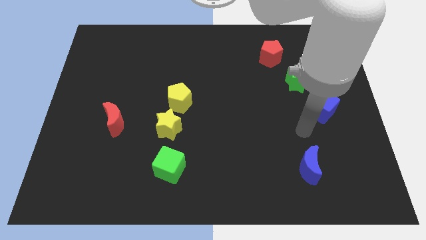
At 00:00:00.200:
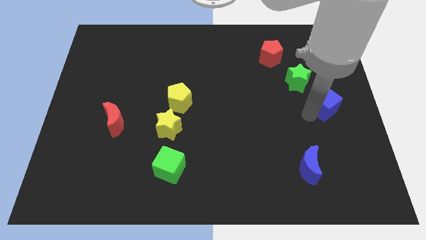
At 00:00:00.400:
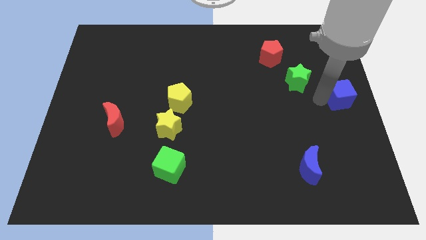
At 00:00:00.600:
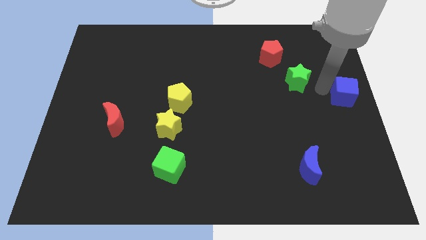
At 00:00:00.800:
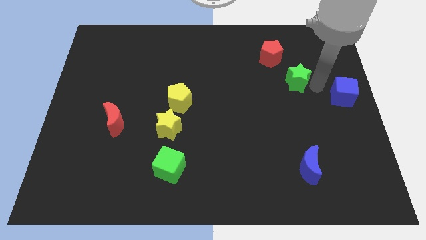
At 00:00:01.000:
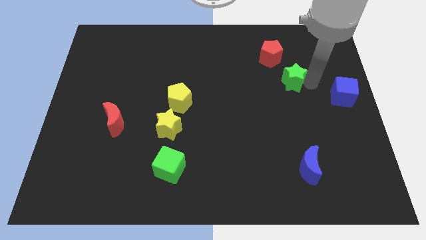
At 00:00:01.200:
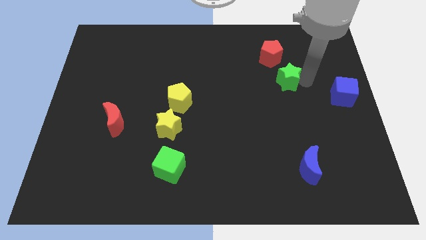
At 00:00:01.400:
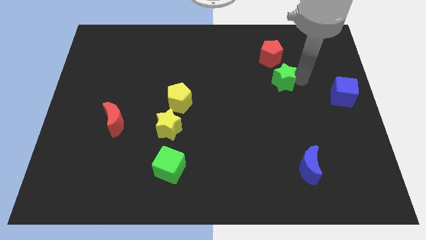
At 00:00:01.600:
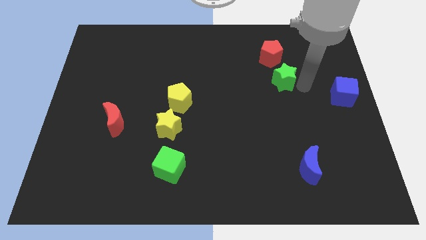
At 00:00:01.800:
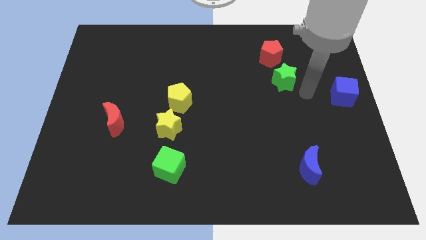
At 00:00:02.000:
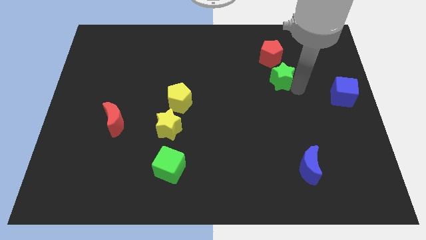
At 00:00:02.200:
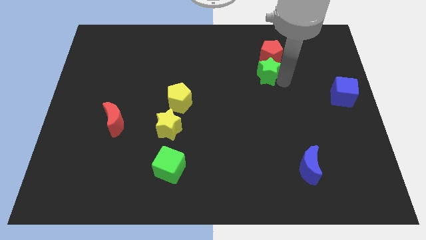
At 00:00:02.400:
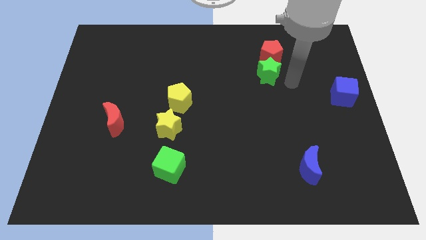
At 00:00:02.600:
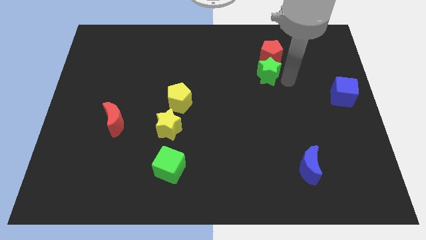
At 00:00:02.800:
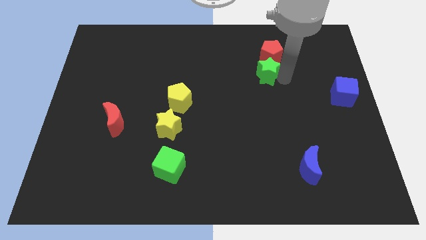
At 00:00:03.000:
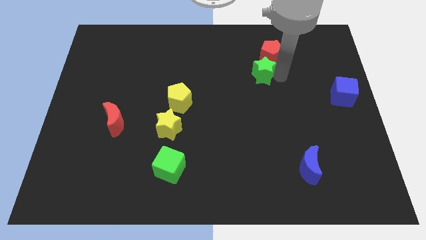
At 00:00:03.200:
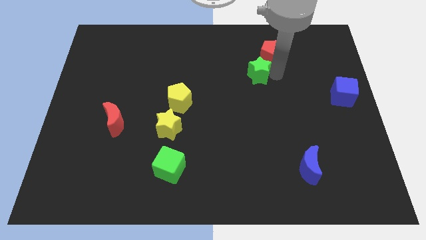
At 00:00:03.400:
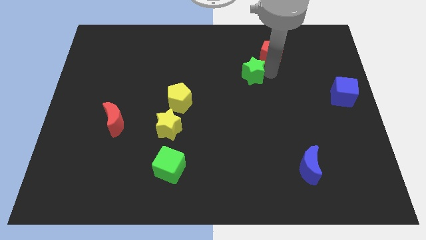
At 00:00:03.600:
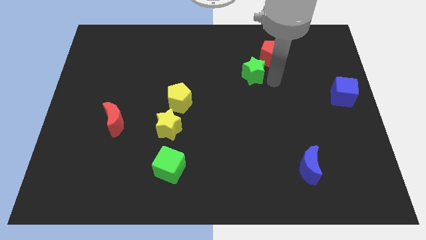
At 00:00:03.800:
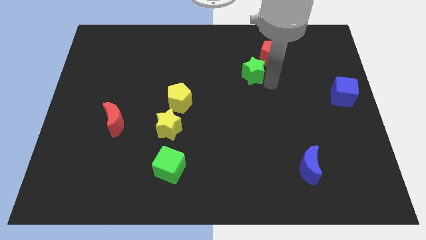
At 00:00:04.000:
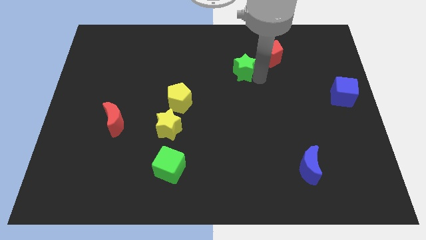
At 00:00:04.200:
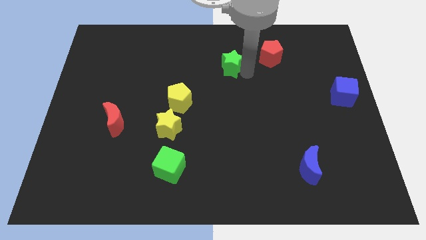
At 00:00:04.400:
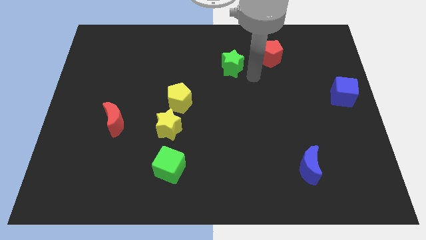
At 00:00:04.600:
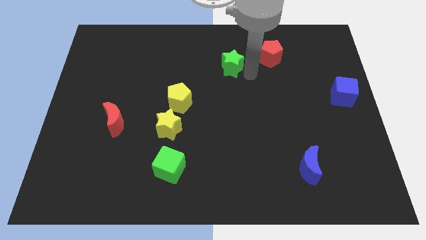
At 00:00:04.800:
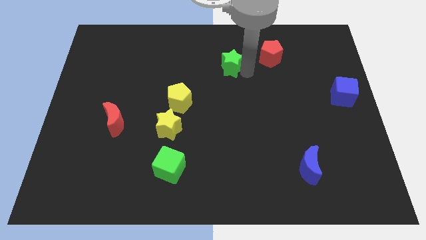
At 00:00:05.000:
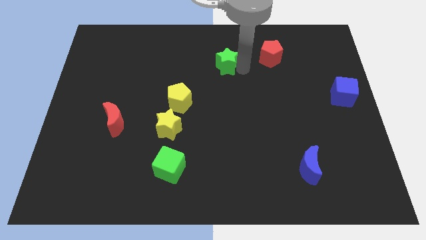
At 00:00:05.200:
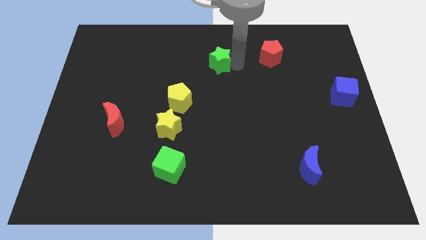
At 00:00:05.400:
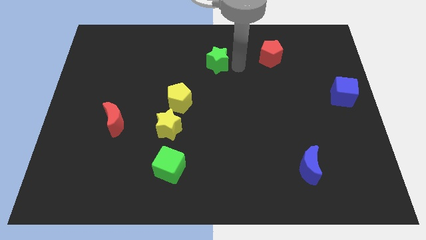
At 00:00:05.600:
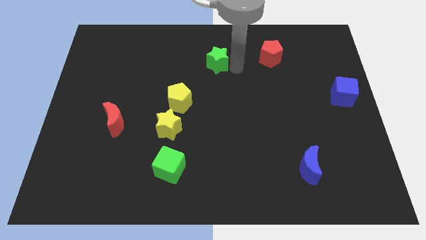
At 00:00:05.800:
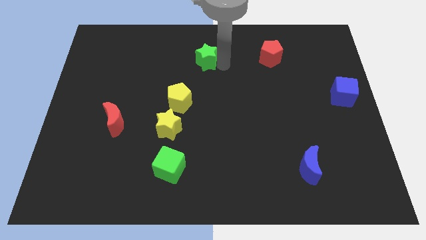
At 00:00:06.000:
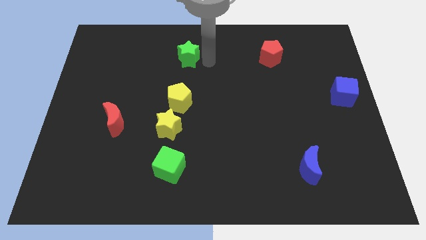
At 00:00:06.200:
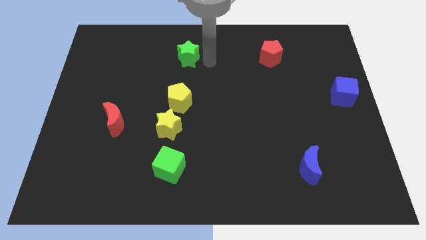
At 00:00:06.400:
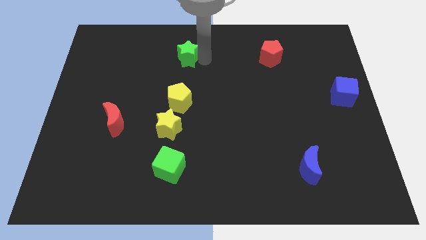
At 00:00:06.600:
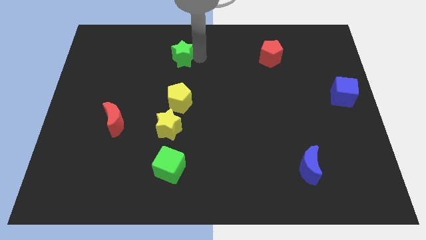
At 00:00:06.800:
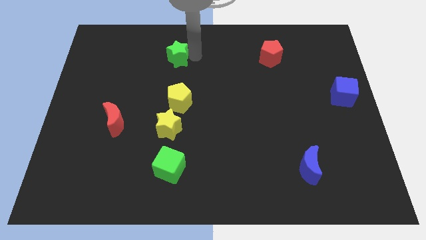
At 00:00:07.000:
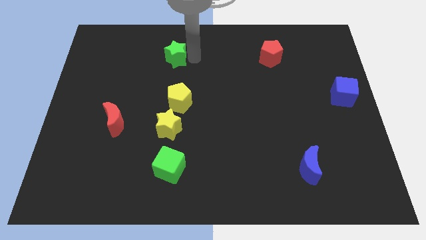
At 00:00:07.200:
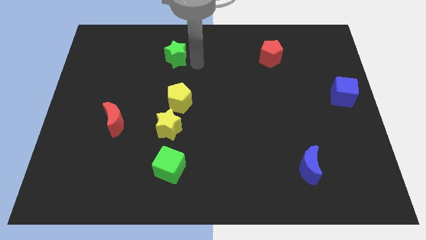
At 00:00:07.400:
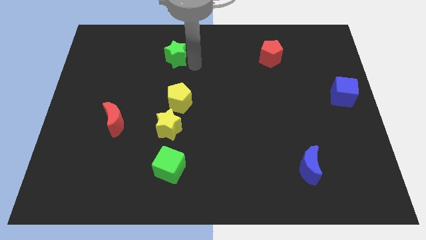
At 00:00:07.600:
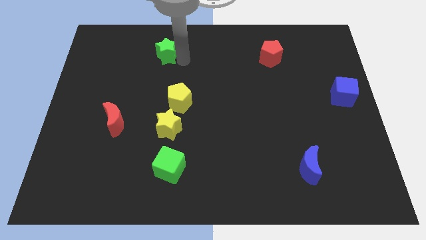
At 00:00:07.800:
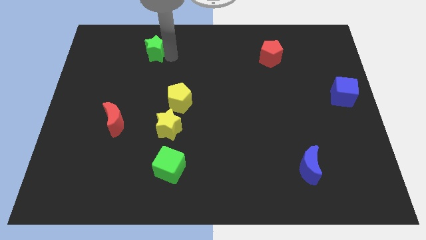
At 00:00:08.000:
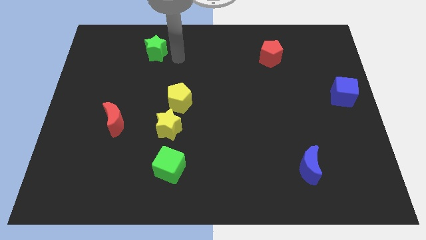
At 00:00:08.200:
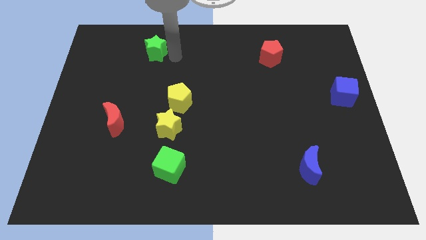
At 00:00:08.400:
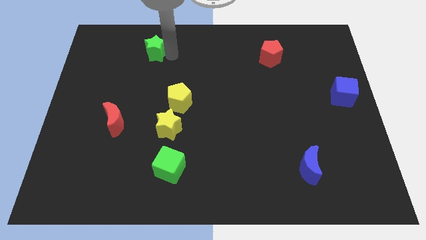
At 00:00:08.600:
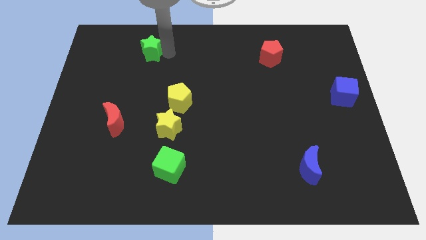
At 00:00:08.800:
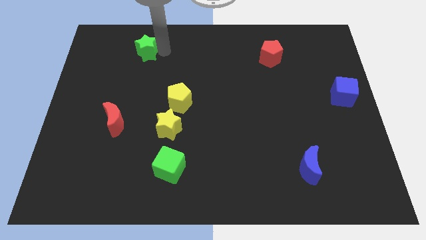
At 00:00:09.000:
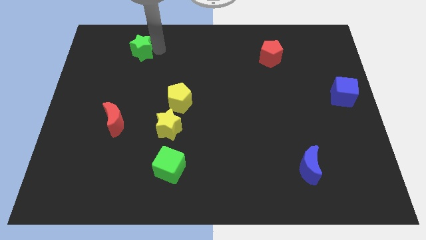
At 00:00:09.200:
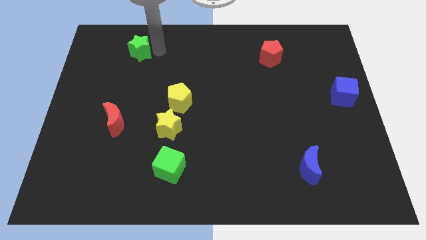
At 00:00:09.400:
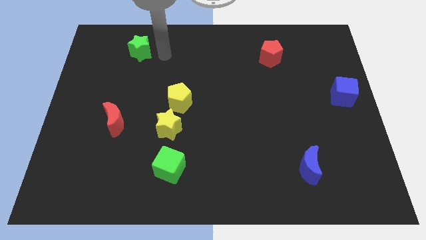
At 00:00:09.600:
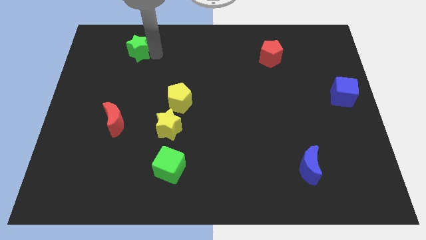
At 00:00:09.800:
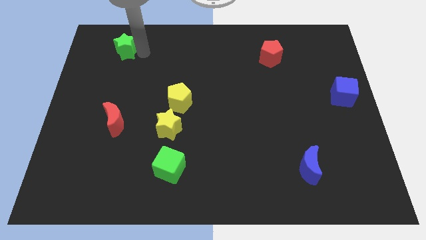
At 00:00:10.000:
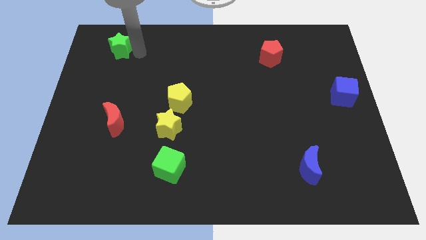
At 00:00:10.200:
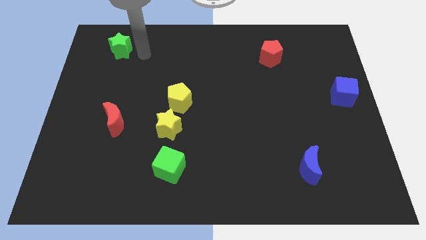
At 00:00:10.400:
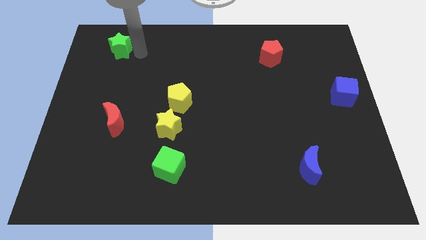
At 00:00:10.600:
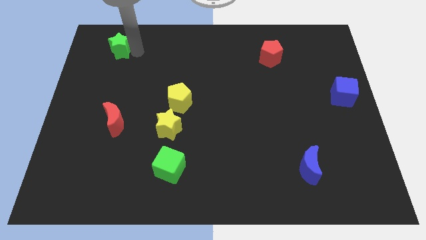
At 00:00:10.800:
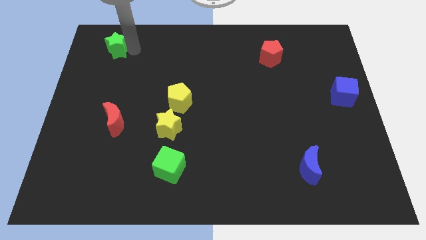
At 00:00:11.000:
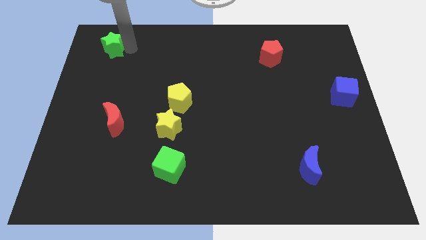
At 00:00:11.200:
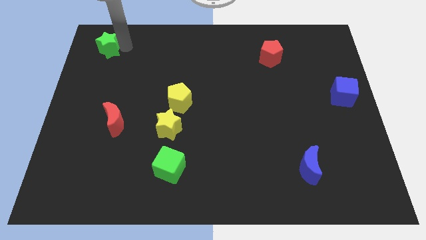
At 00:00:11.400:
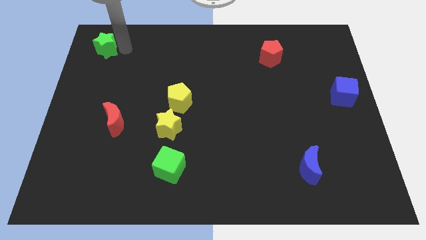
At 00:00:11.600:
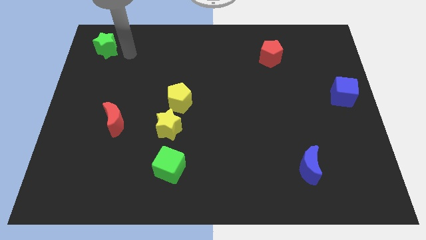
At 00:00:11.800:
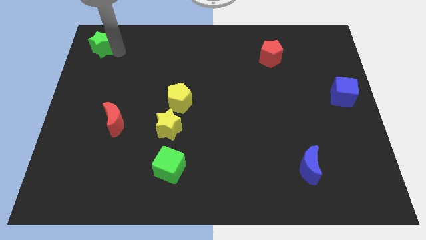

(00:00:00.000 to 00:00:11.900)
move the green star to the top left of the board
